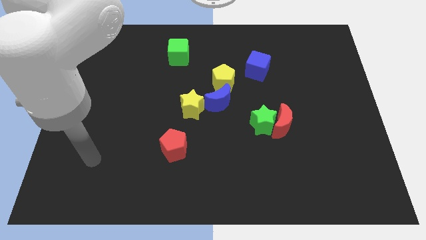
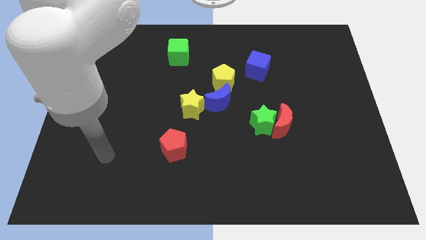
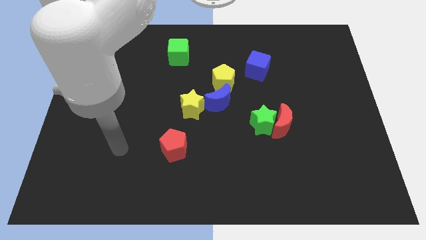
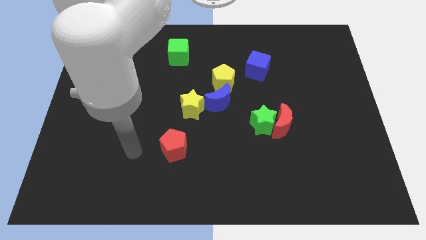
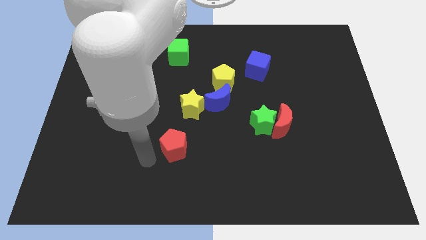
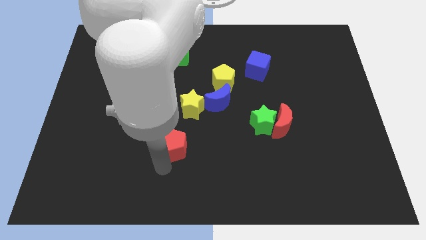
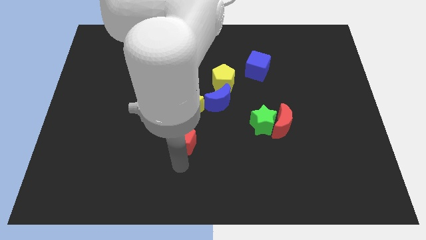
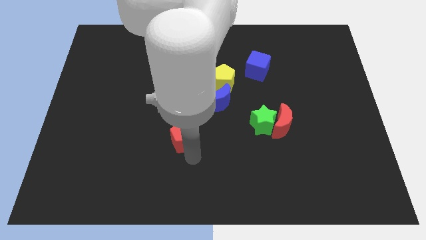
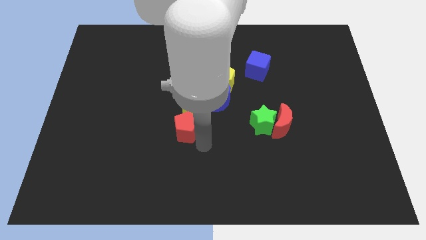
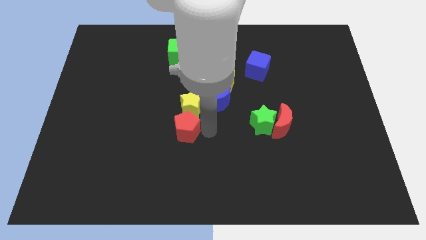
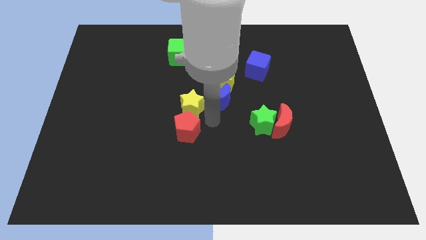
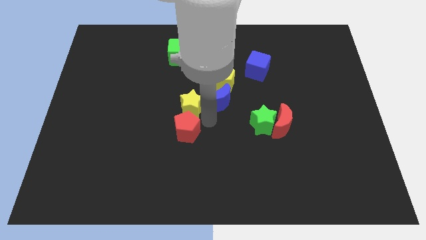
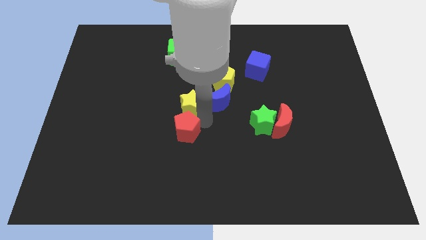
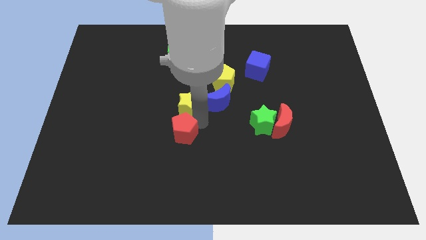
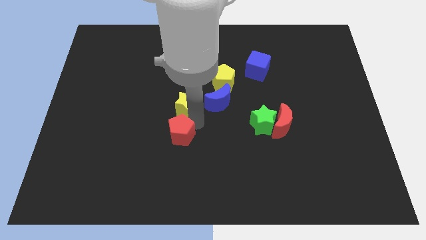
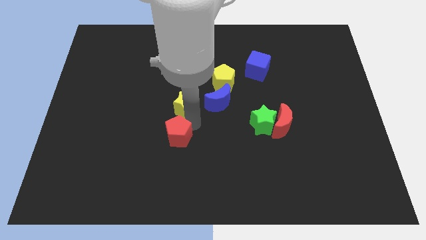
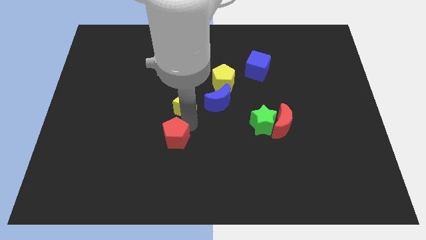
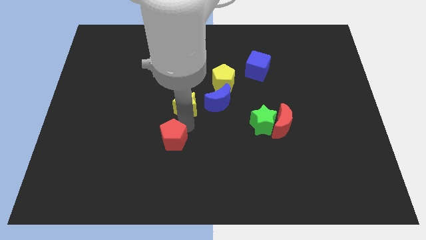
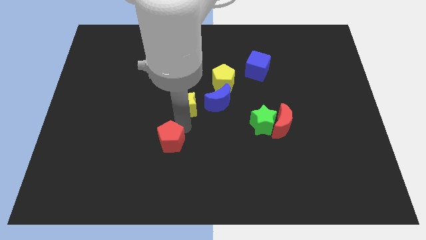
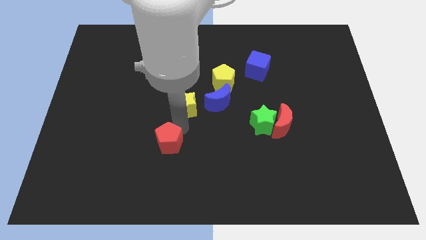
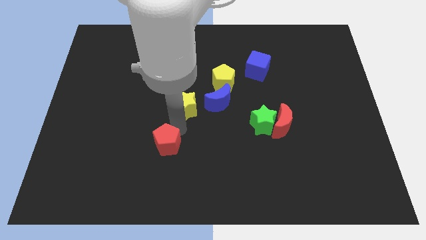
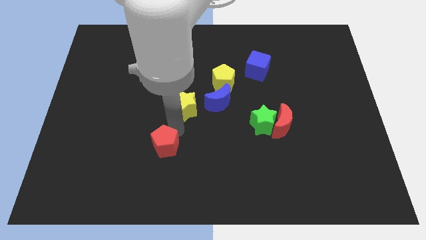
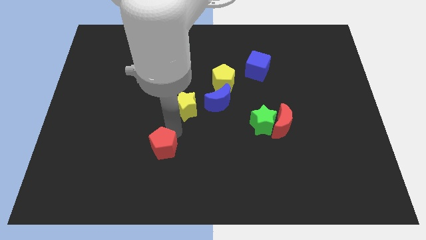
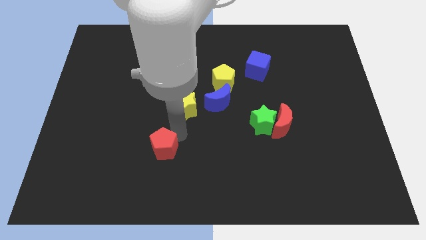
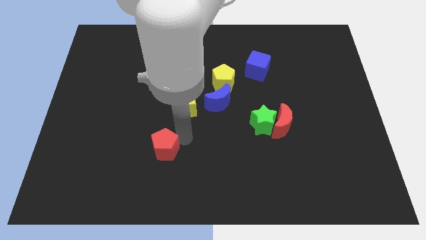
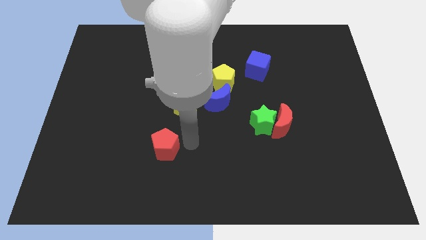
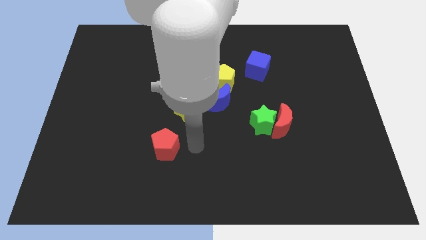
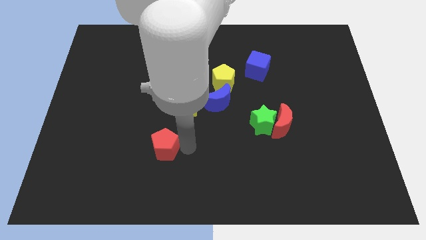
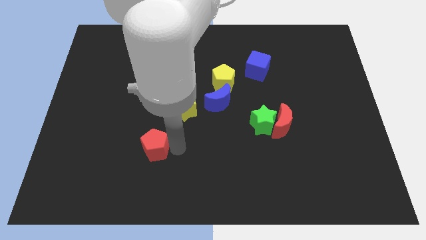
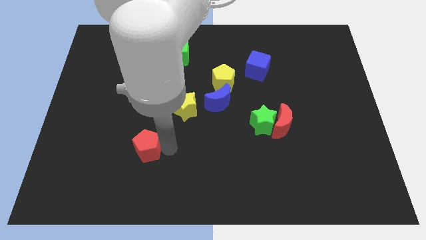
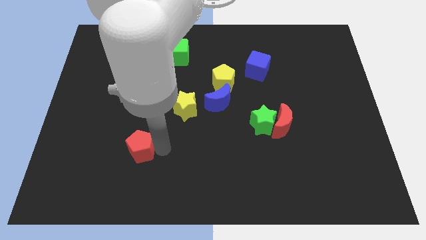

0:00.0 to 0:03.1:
slide the red pentagon to the left a little

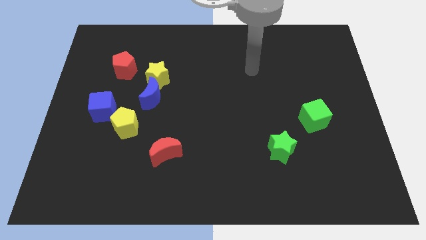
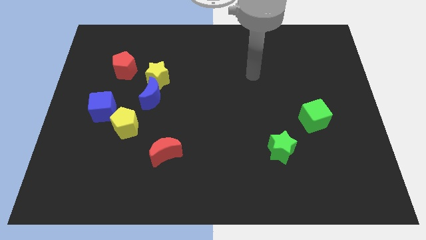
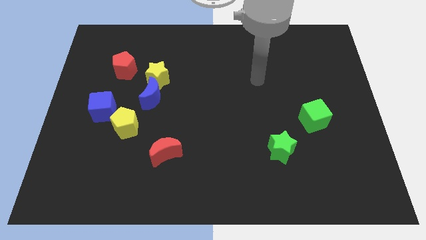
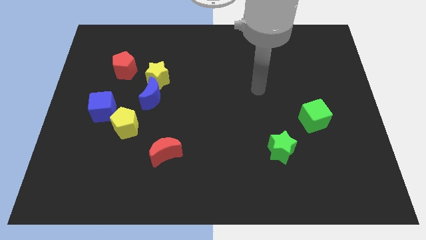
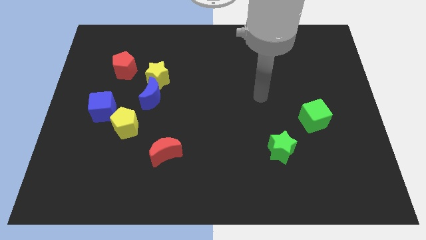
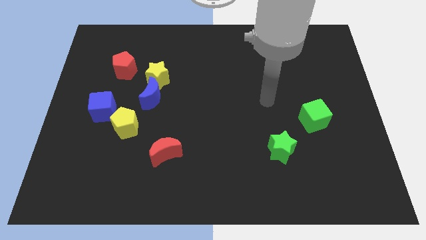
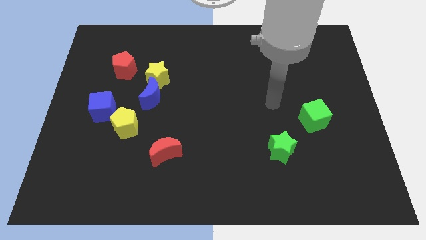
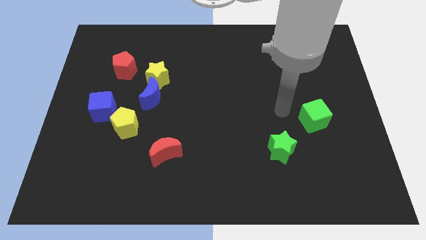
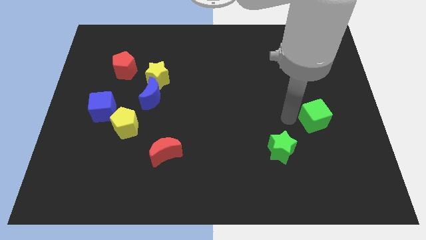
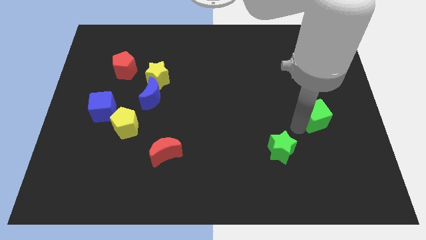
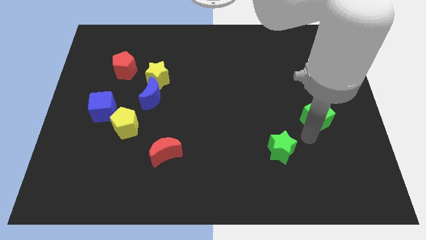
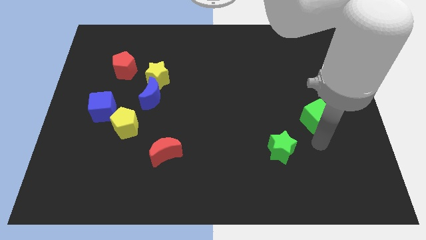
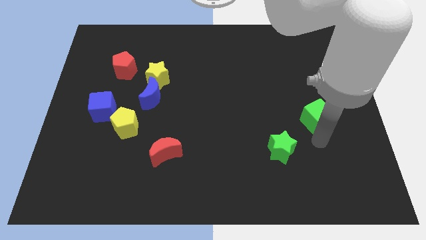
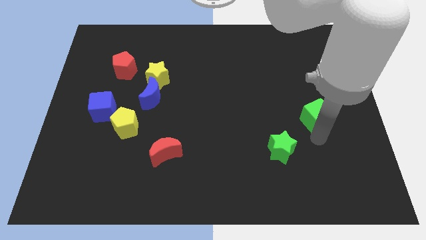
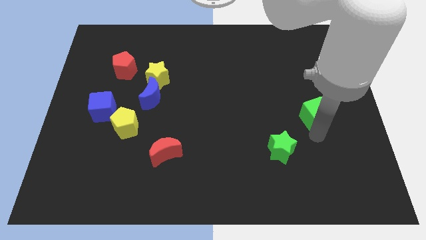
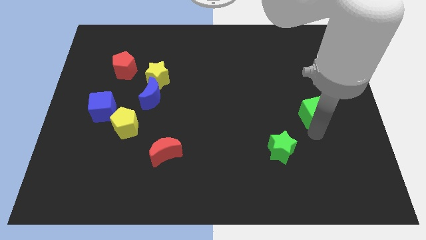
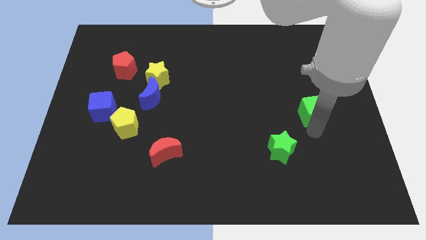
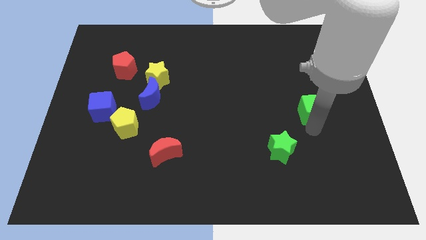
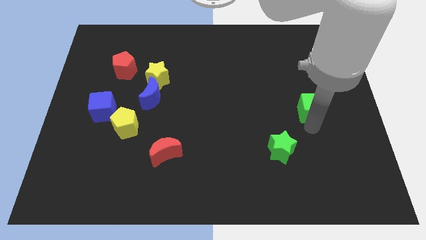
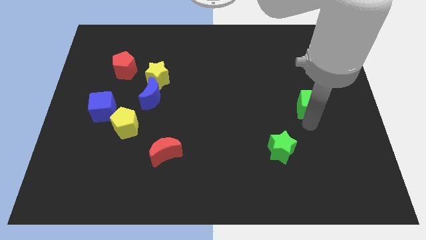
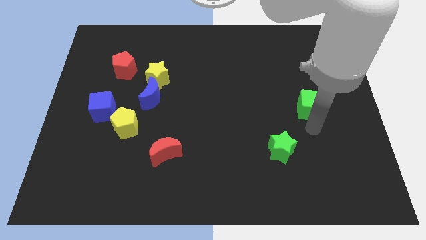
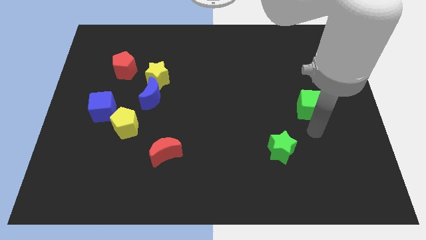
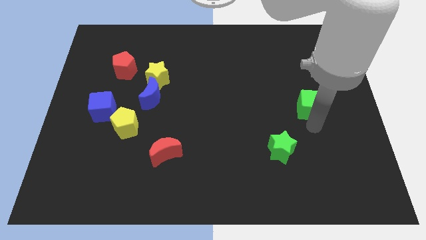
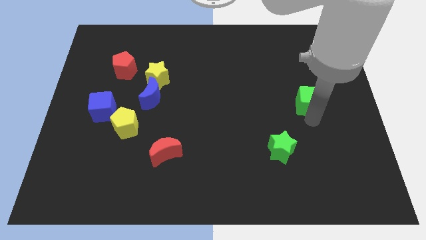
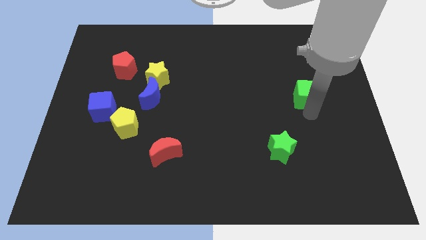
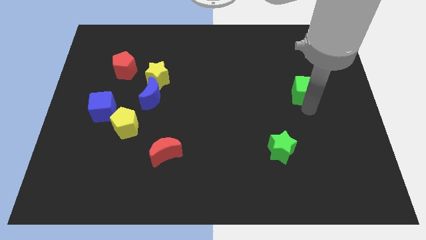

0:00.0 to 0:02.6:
slide the green cube a little bit up

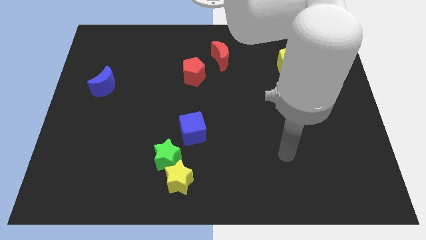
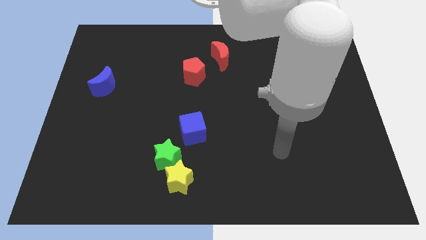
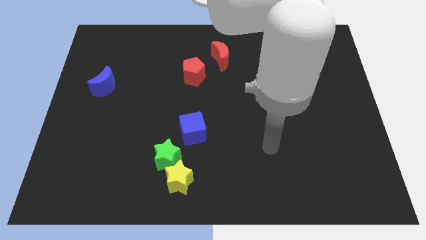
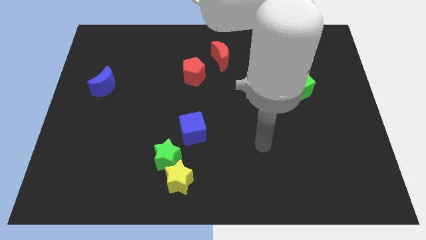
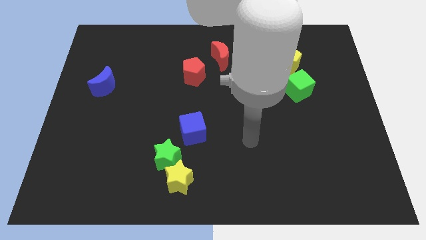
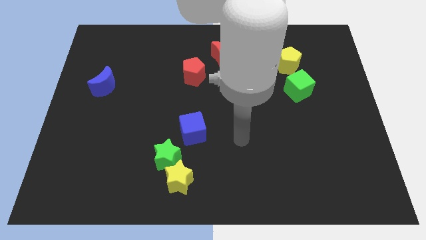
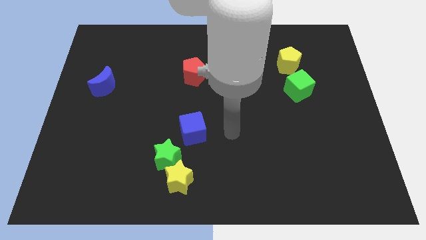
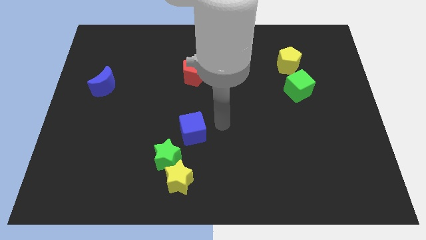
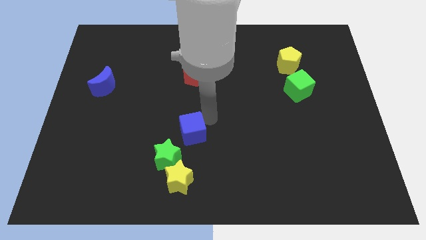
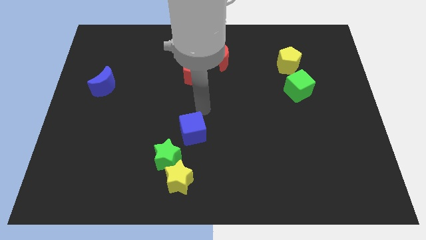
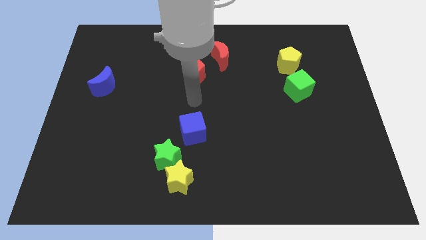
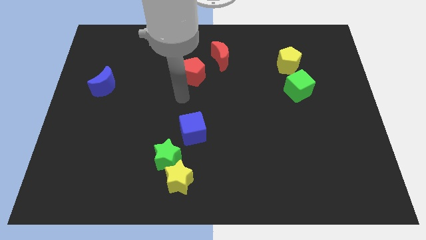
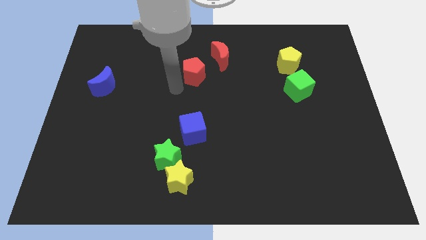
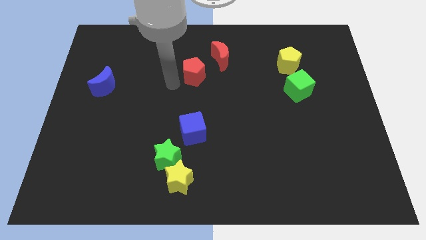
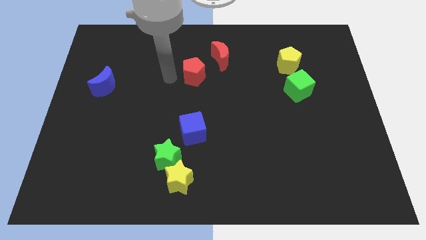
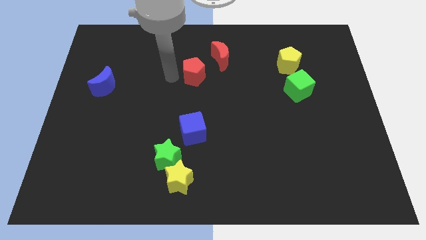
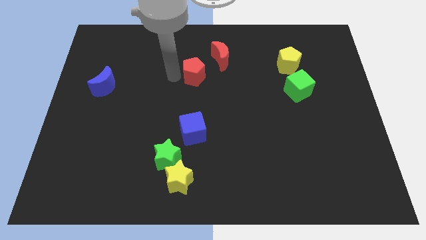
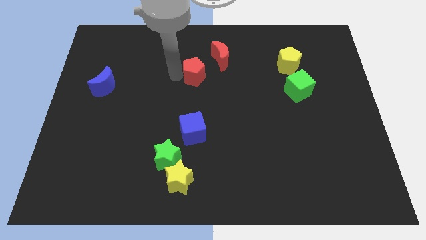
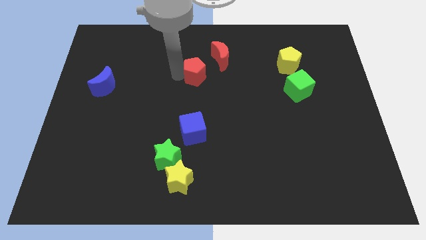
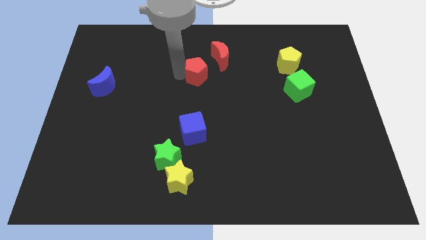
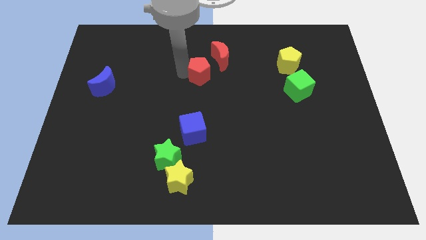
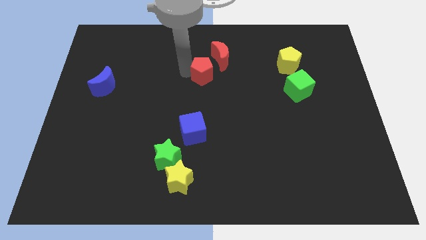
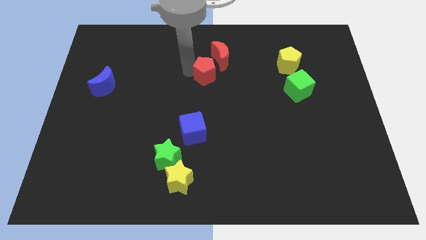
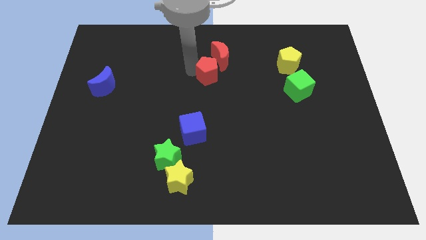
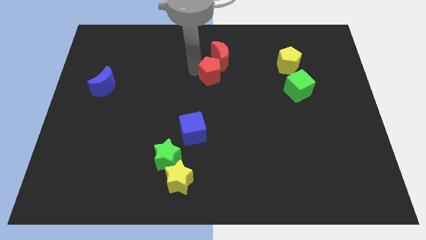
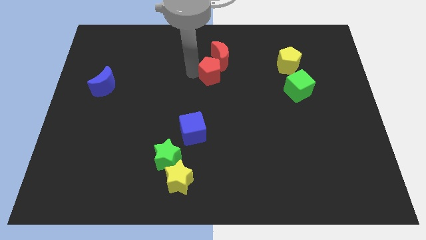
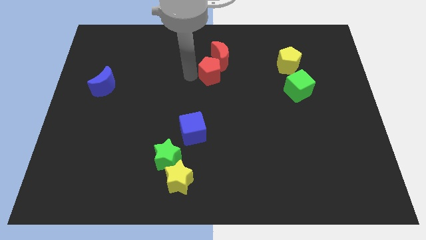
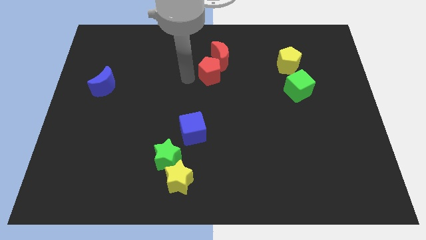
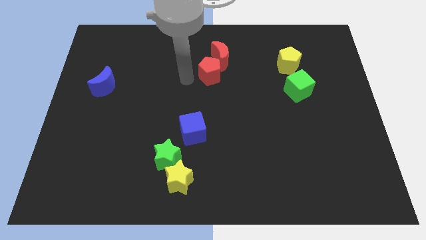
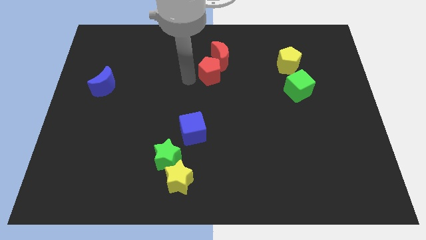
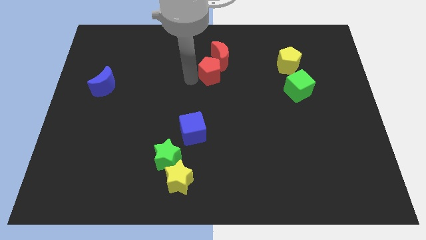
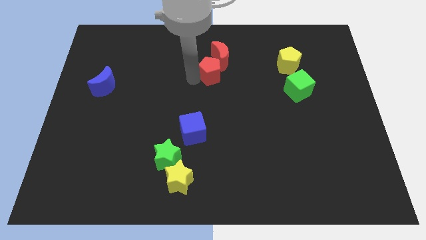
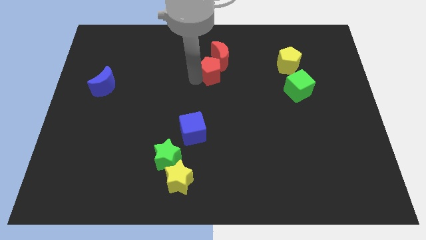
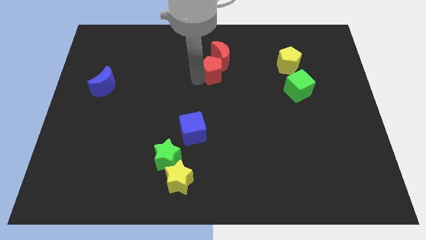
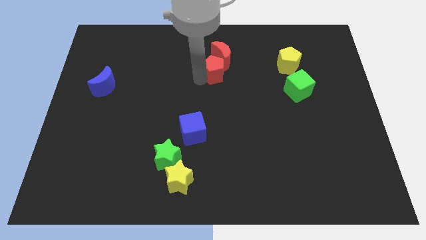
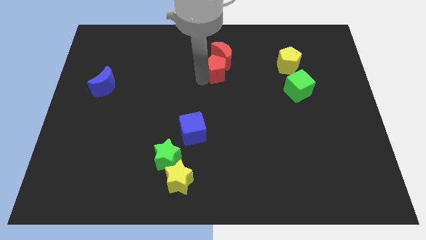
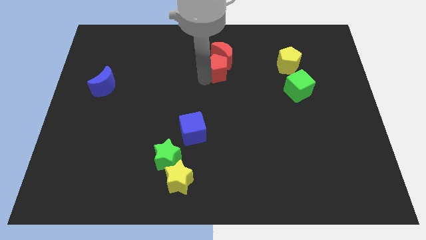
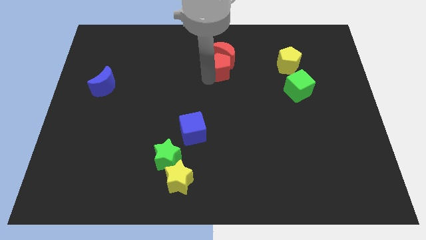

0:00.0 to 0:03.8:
slide the red pentagon a little right
